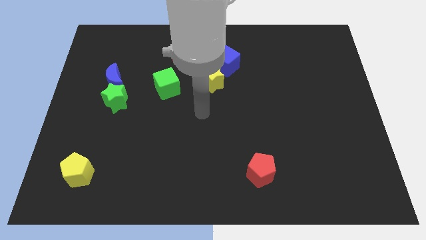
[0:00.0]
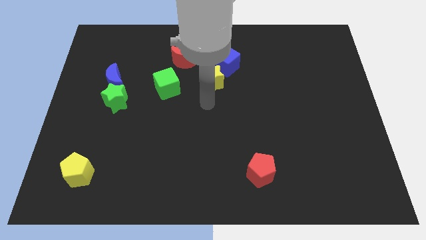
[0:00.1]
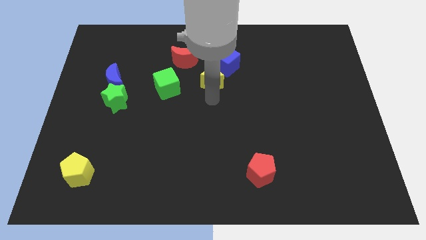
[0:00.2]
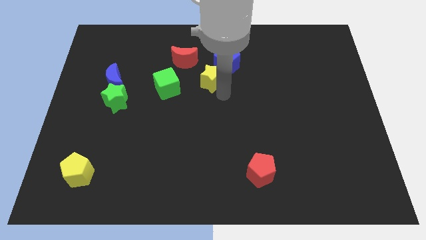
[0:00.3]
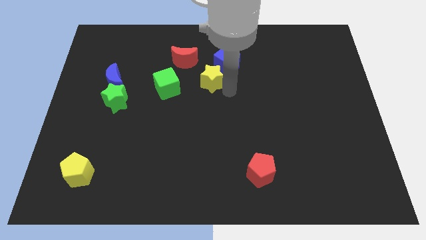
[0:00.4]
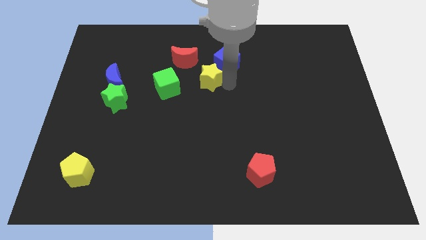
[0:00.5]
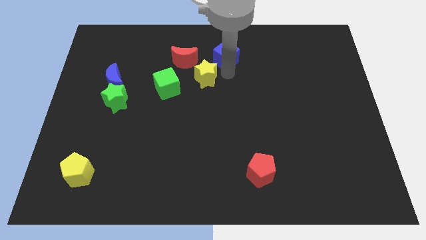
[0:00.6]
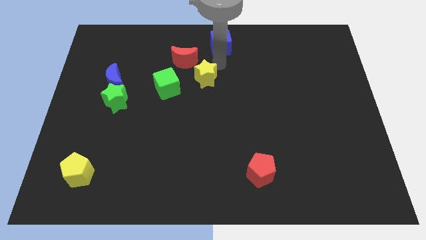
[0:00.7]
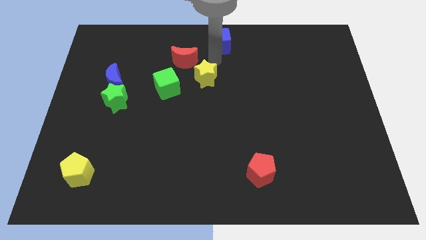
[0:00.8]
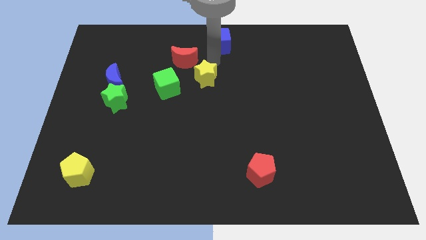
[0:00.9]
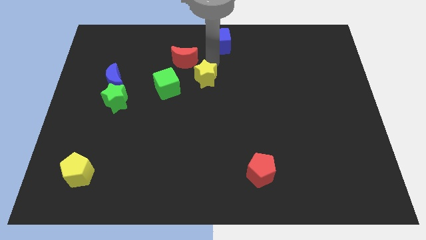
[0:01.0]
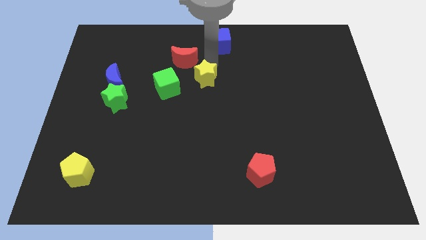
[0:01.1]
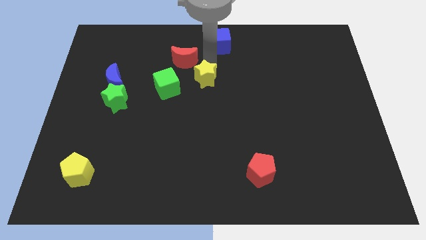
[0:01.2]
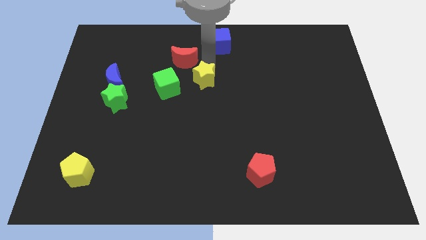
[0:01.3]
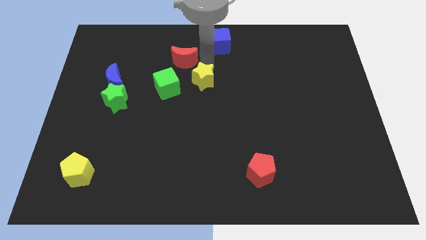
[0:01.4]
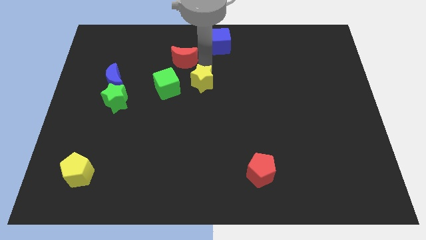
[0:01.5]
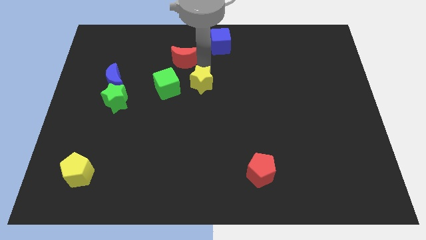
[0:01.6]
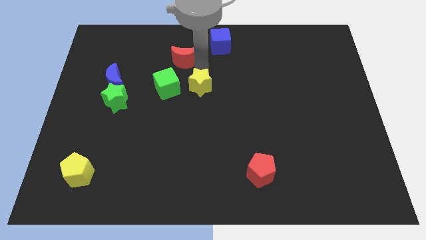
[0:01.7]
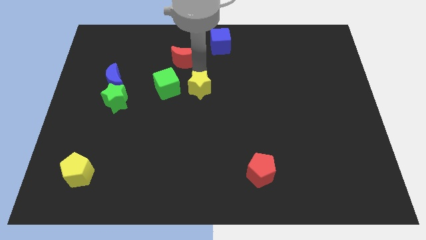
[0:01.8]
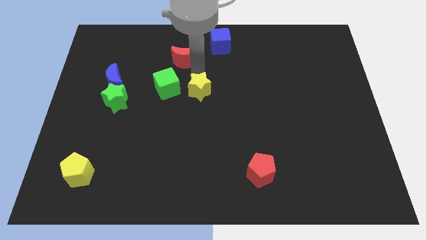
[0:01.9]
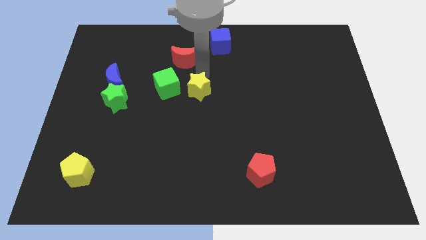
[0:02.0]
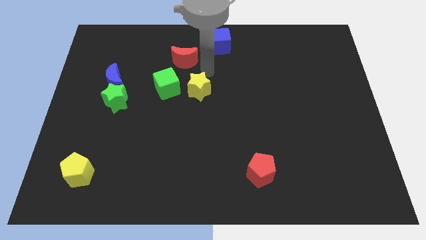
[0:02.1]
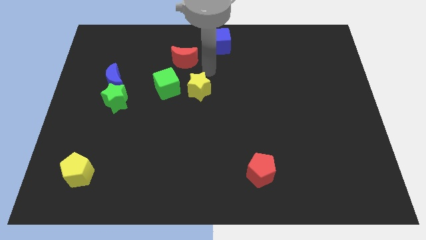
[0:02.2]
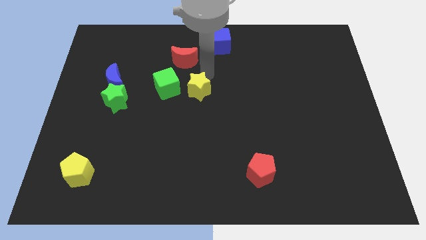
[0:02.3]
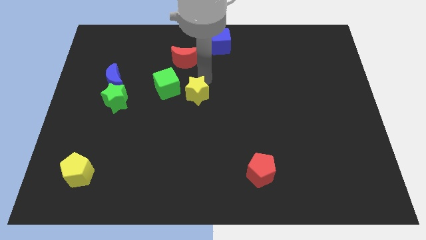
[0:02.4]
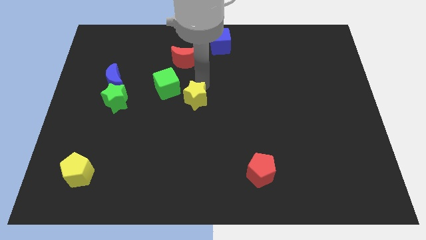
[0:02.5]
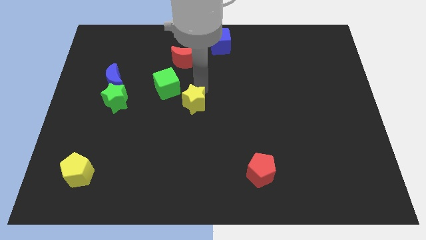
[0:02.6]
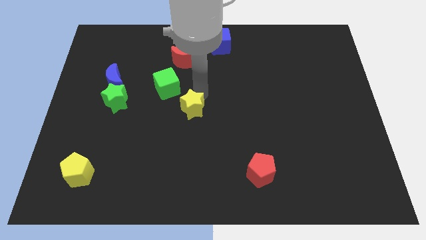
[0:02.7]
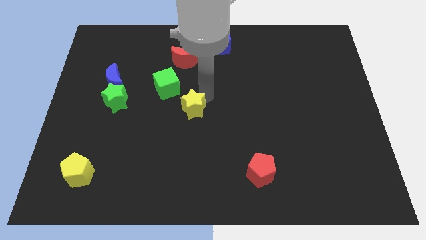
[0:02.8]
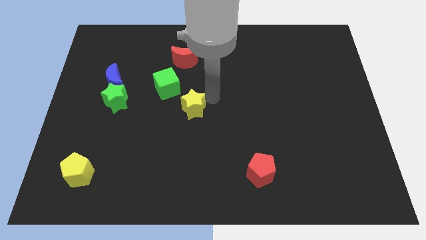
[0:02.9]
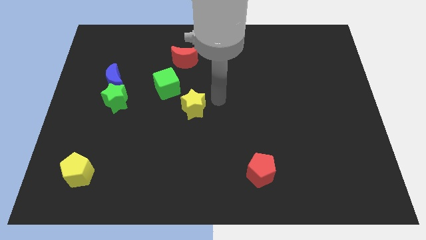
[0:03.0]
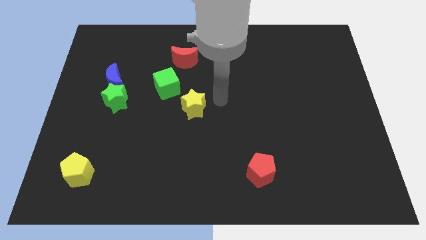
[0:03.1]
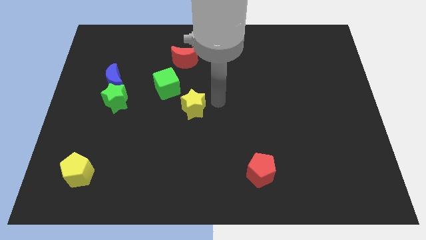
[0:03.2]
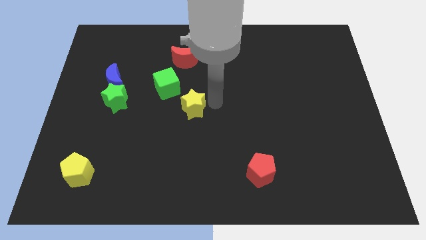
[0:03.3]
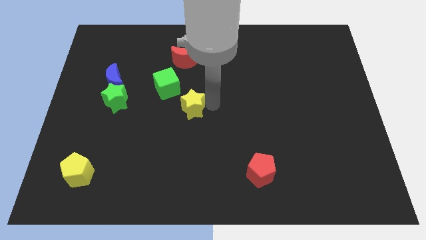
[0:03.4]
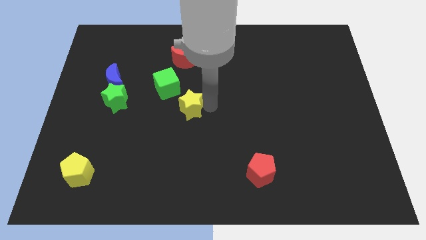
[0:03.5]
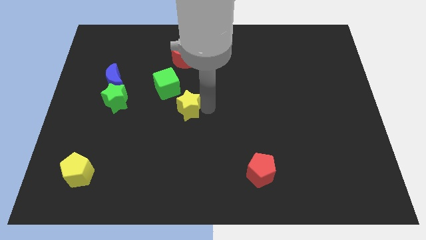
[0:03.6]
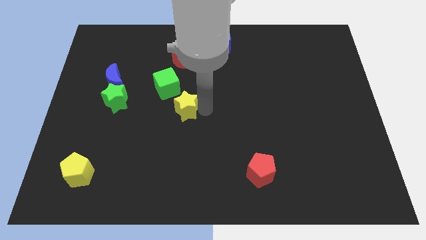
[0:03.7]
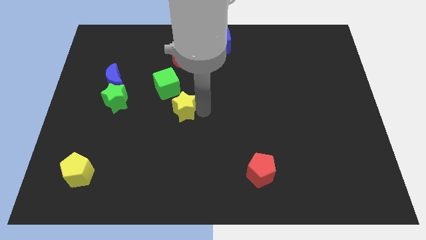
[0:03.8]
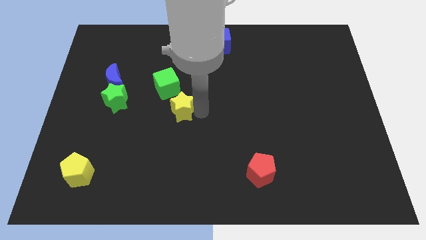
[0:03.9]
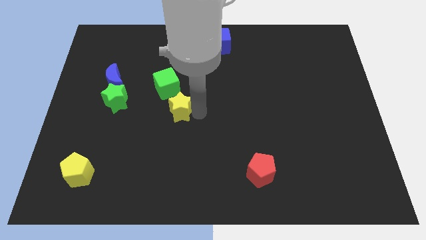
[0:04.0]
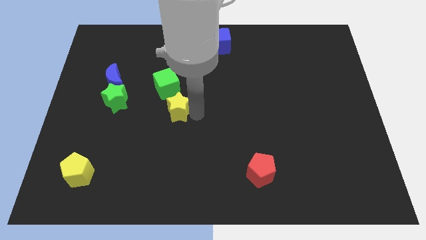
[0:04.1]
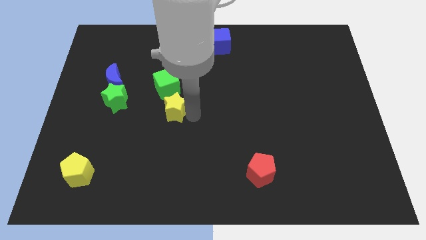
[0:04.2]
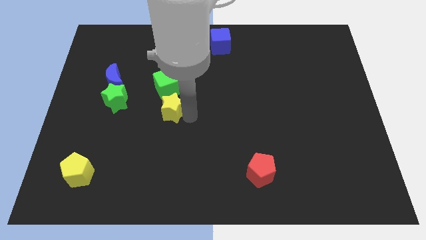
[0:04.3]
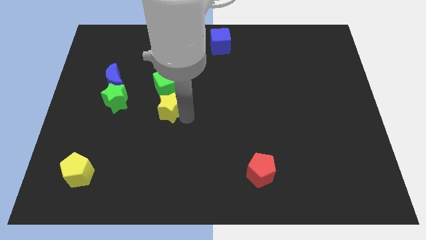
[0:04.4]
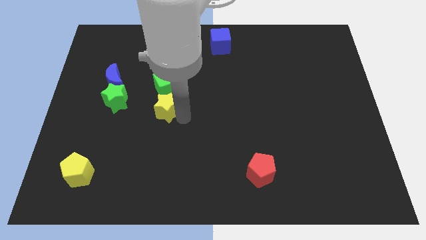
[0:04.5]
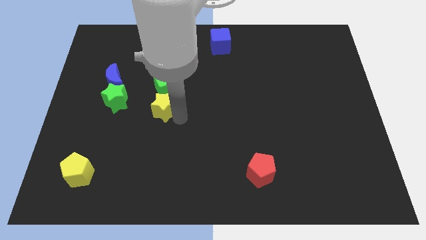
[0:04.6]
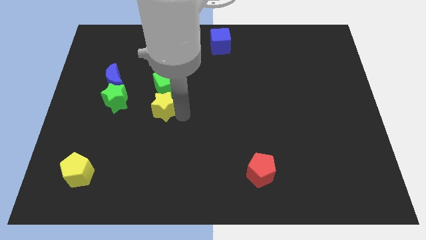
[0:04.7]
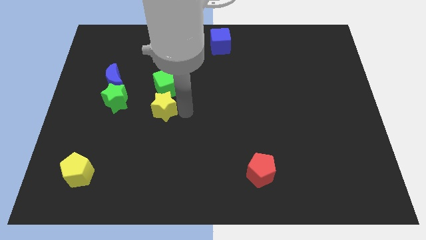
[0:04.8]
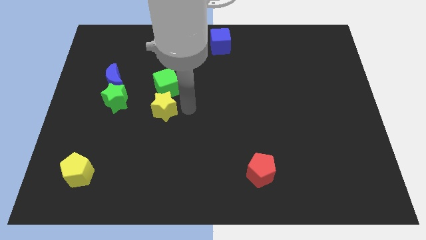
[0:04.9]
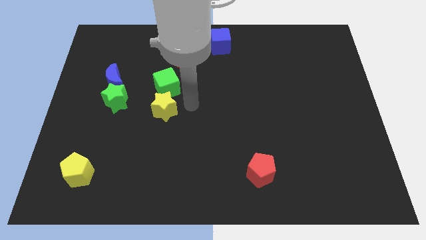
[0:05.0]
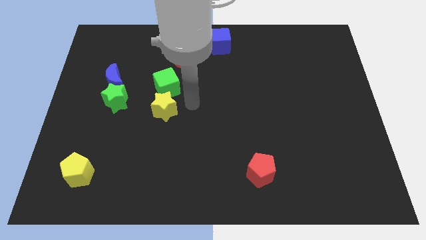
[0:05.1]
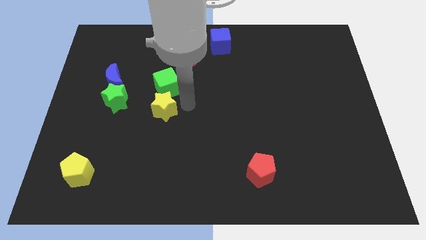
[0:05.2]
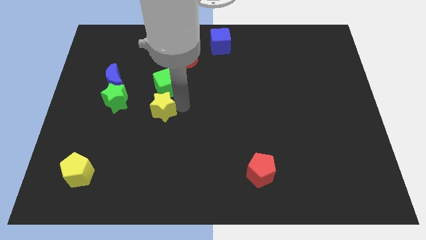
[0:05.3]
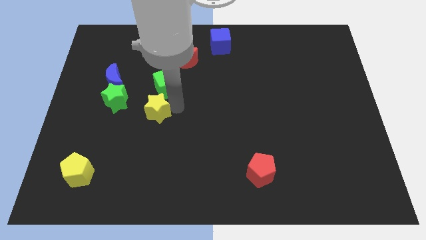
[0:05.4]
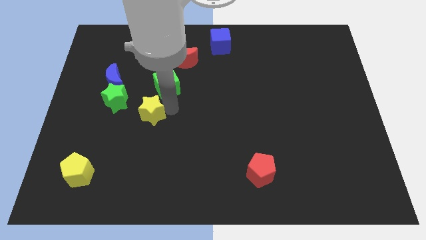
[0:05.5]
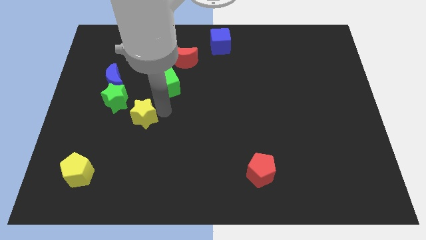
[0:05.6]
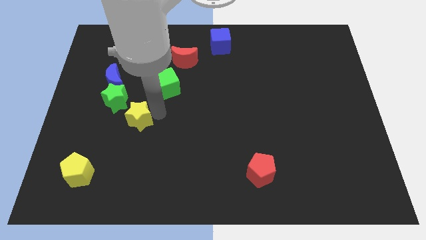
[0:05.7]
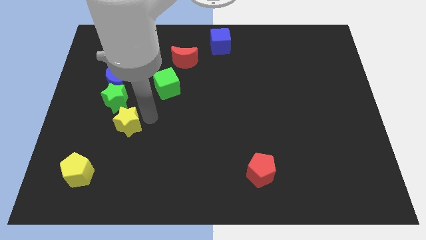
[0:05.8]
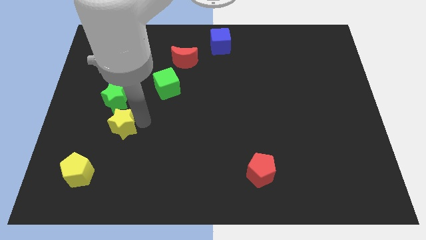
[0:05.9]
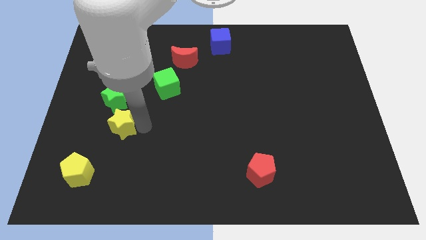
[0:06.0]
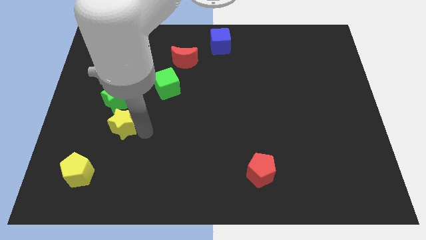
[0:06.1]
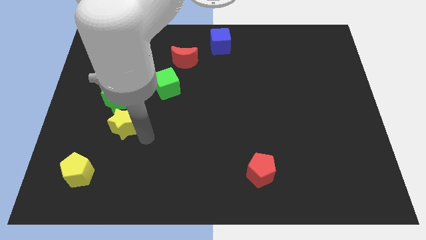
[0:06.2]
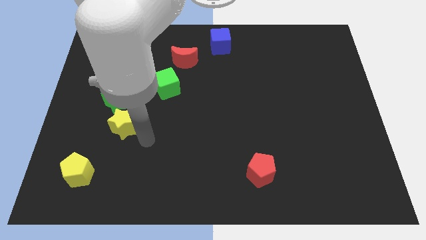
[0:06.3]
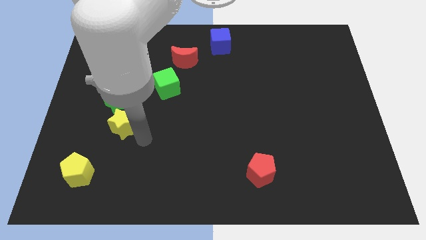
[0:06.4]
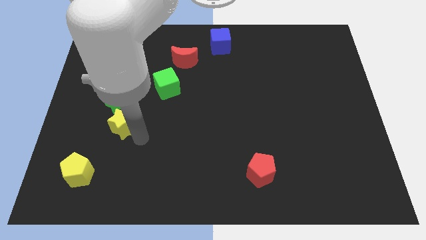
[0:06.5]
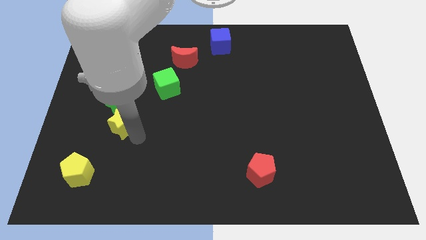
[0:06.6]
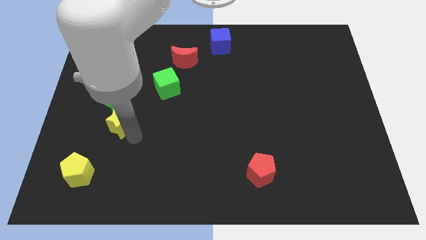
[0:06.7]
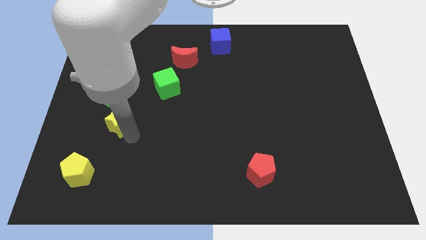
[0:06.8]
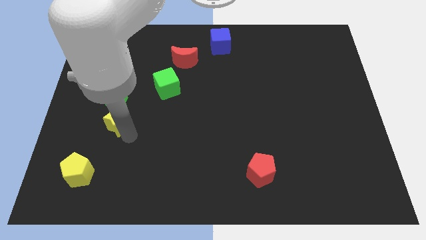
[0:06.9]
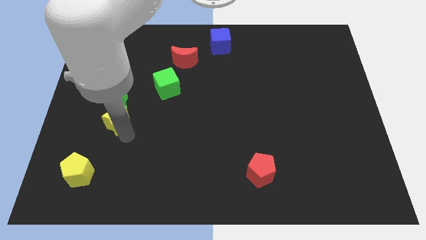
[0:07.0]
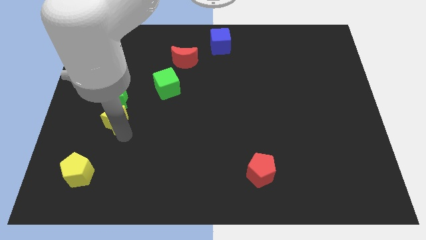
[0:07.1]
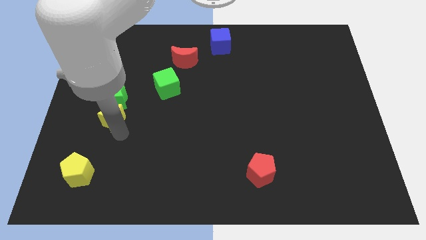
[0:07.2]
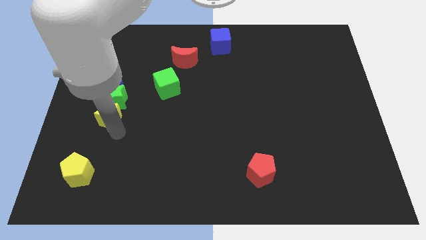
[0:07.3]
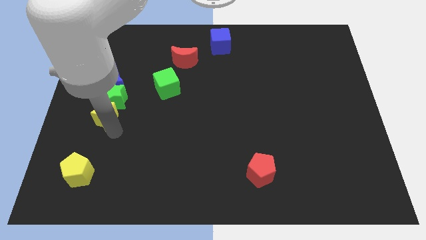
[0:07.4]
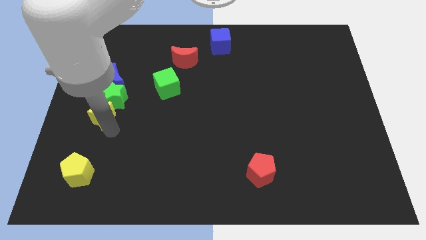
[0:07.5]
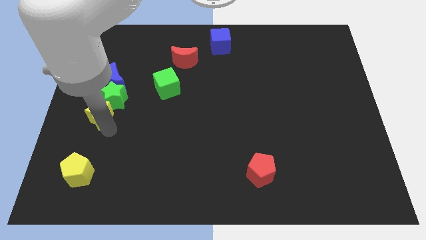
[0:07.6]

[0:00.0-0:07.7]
move the yellow star to the left side
